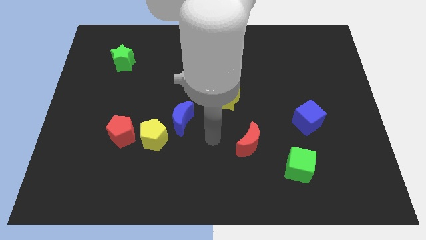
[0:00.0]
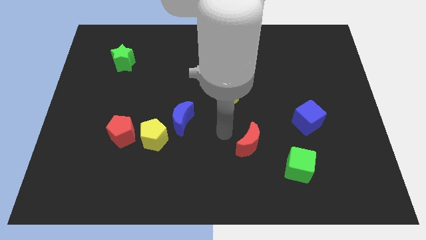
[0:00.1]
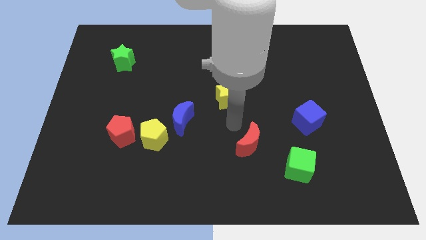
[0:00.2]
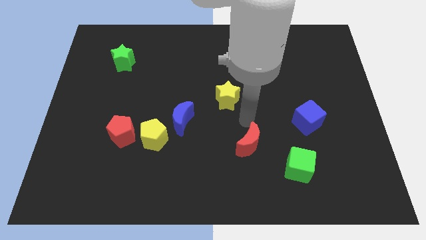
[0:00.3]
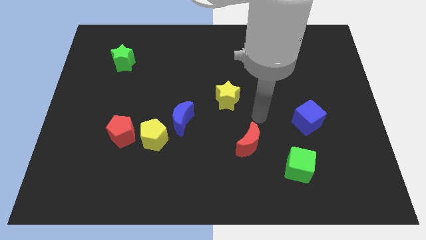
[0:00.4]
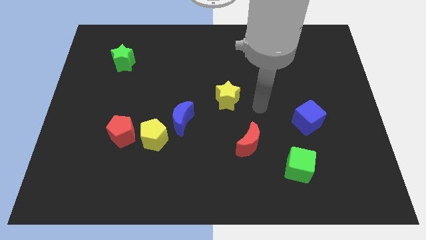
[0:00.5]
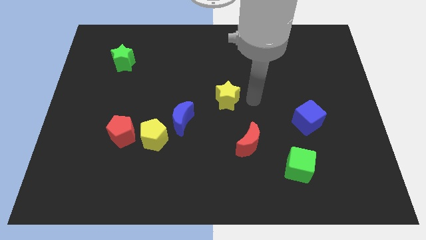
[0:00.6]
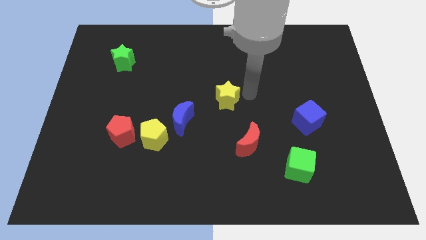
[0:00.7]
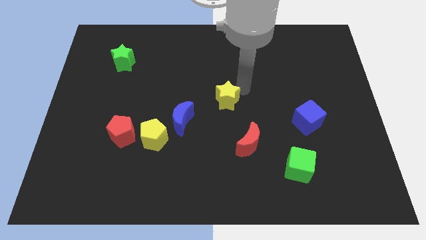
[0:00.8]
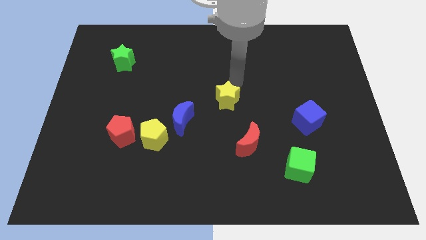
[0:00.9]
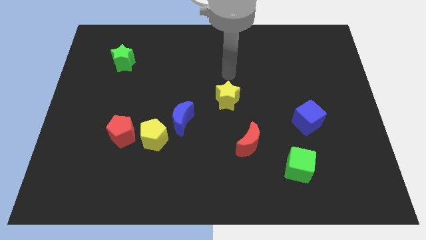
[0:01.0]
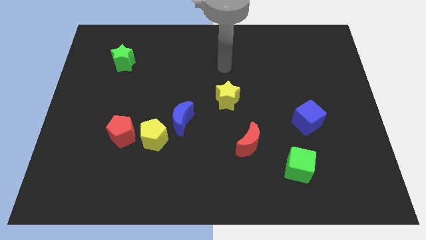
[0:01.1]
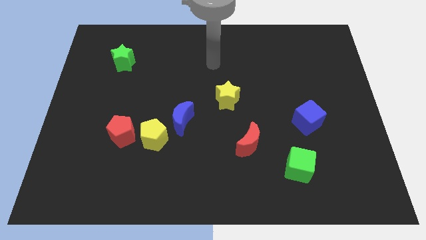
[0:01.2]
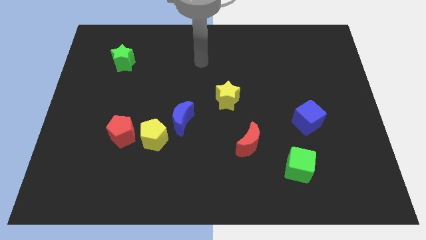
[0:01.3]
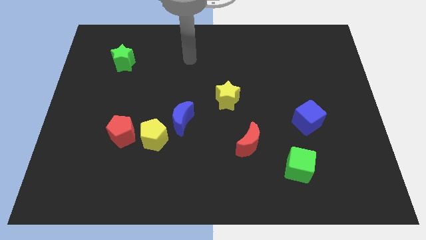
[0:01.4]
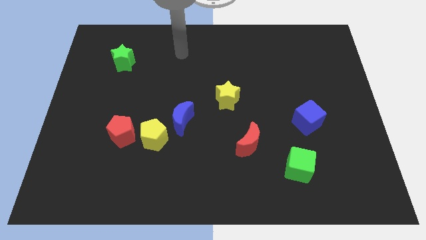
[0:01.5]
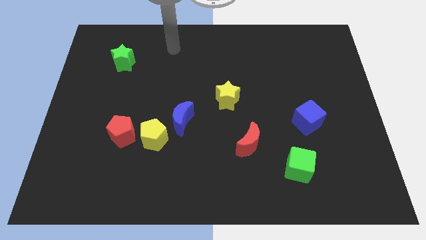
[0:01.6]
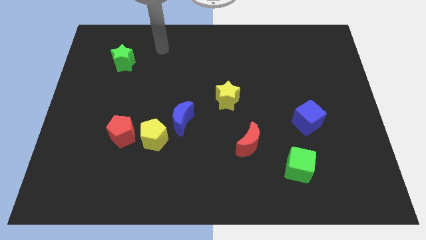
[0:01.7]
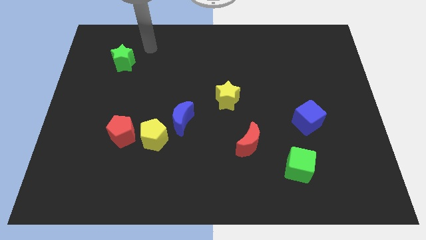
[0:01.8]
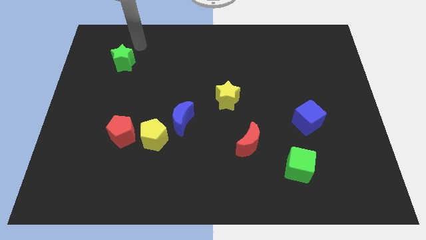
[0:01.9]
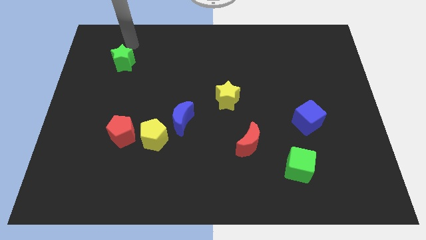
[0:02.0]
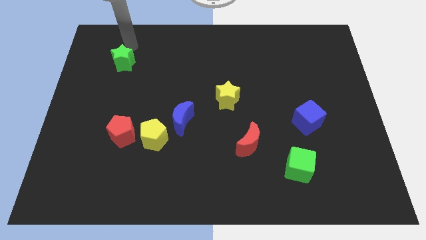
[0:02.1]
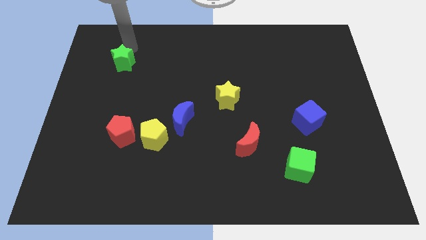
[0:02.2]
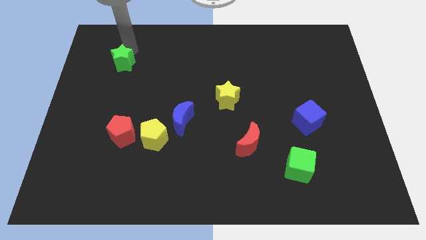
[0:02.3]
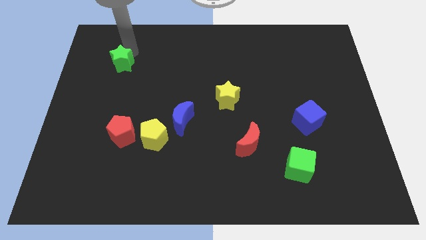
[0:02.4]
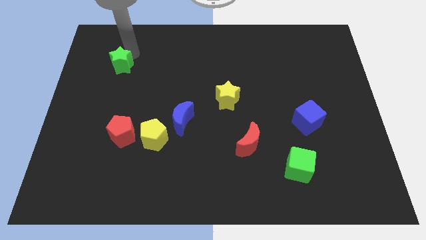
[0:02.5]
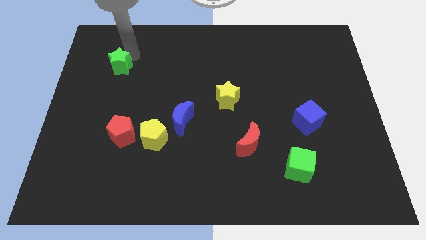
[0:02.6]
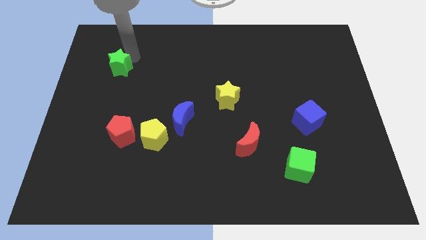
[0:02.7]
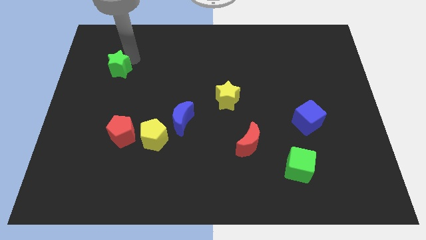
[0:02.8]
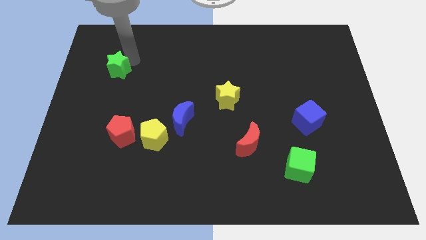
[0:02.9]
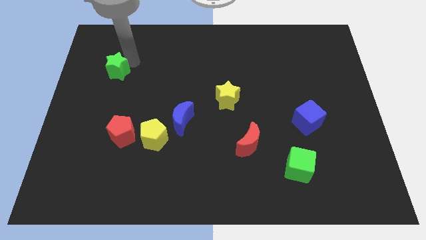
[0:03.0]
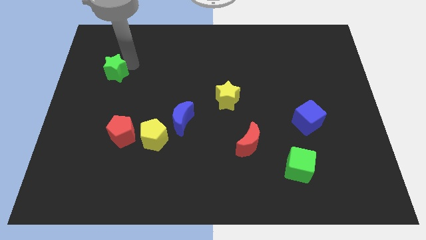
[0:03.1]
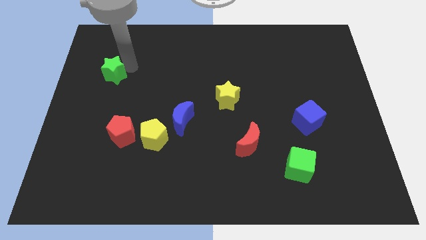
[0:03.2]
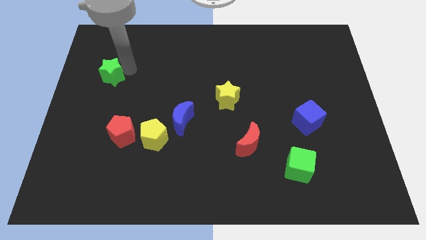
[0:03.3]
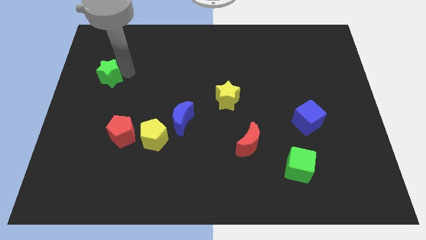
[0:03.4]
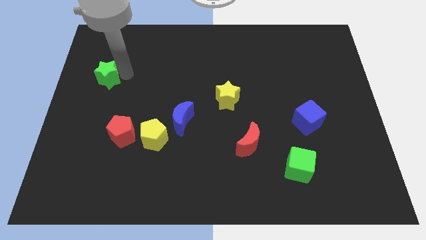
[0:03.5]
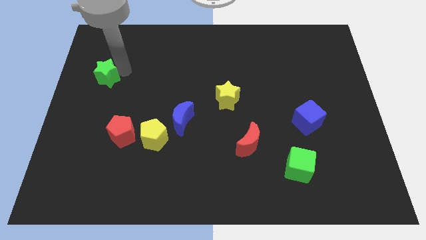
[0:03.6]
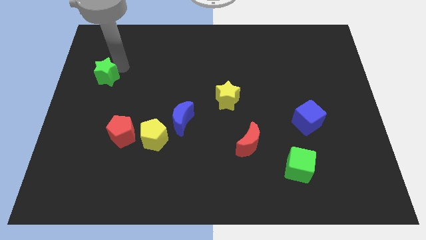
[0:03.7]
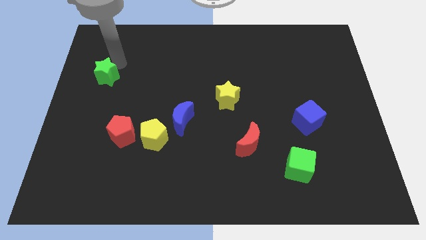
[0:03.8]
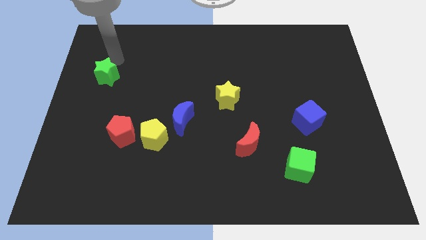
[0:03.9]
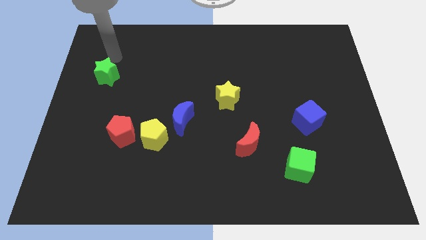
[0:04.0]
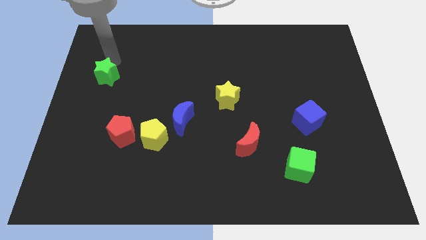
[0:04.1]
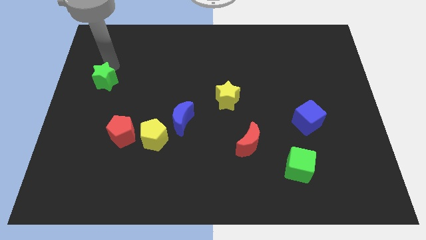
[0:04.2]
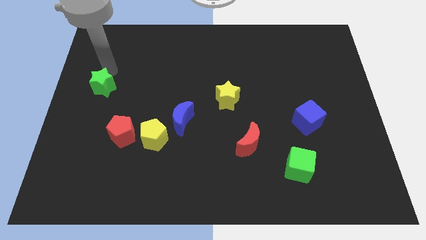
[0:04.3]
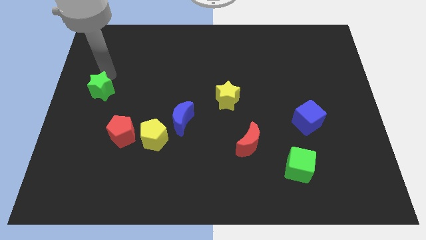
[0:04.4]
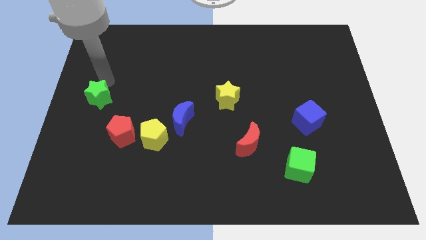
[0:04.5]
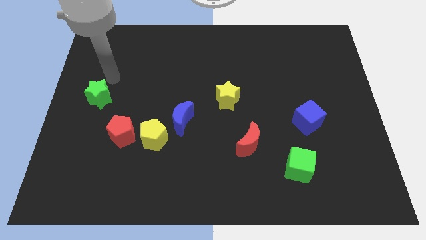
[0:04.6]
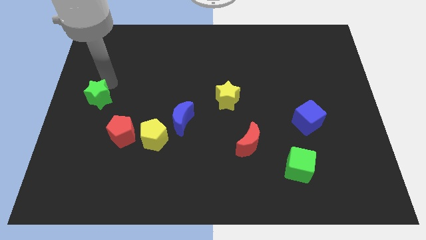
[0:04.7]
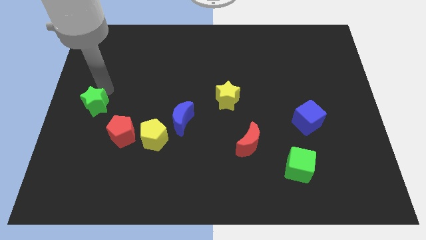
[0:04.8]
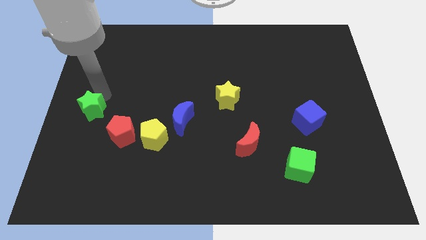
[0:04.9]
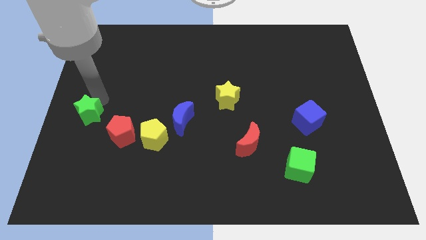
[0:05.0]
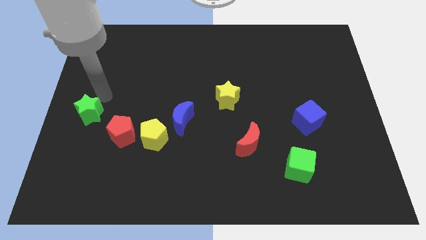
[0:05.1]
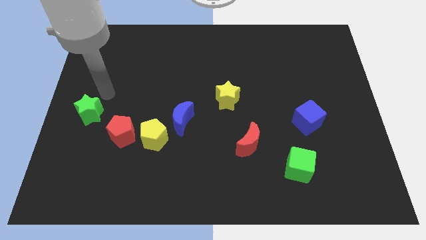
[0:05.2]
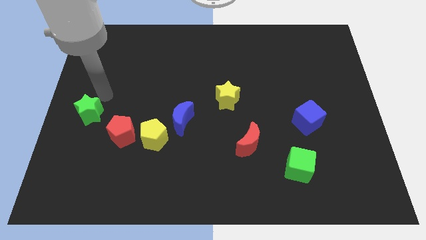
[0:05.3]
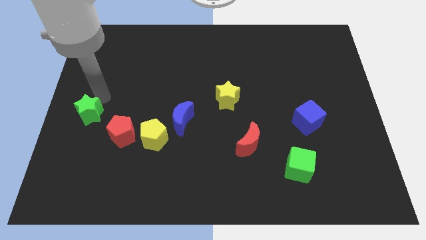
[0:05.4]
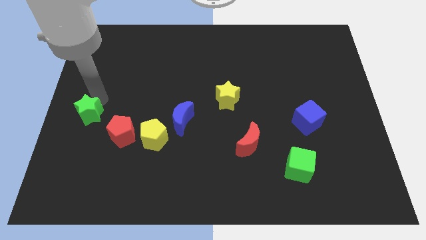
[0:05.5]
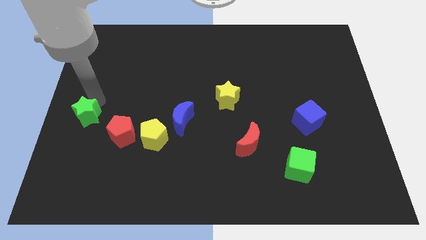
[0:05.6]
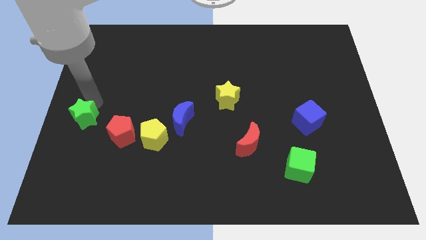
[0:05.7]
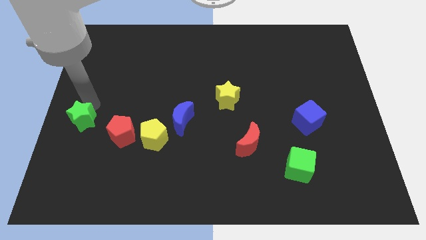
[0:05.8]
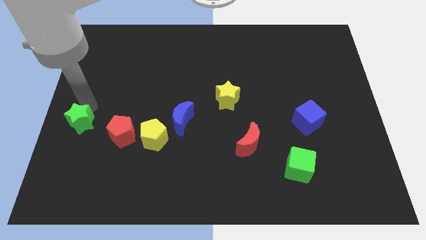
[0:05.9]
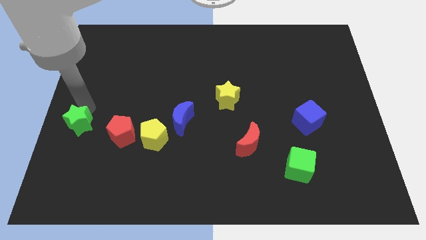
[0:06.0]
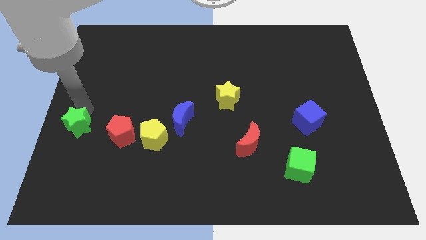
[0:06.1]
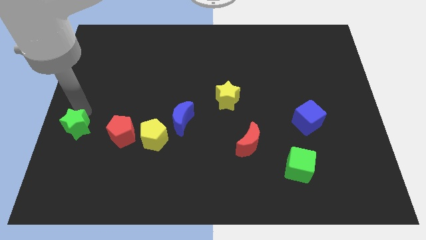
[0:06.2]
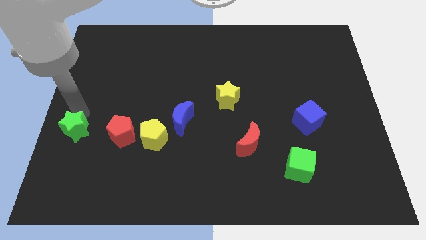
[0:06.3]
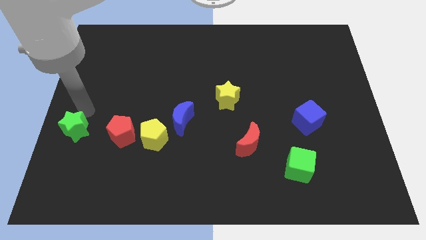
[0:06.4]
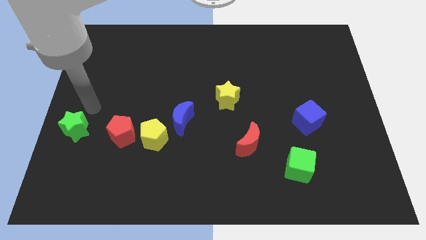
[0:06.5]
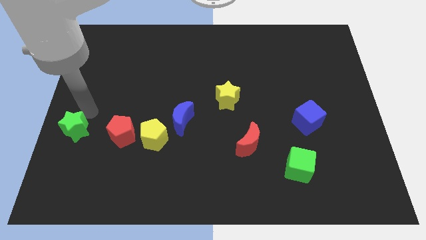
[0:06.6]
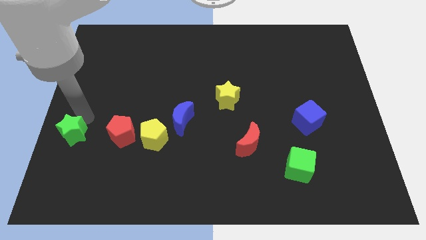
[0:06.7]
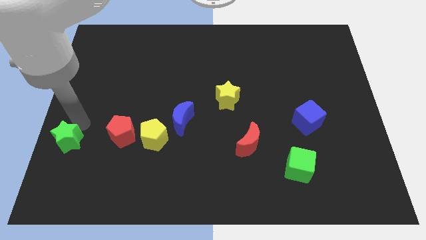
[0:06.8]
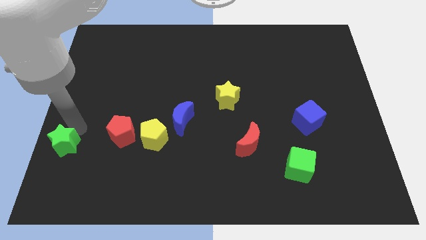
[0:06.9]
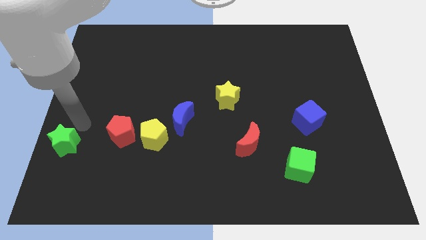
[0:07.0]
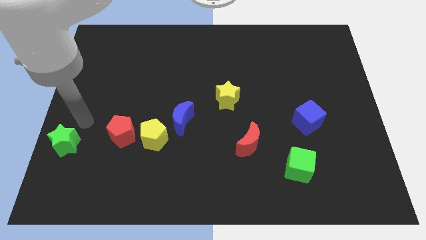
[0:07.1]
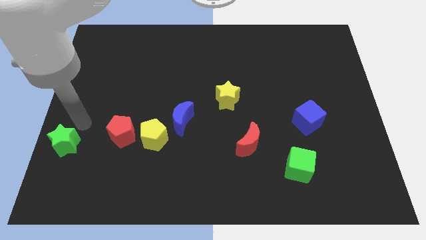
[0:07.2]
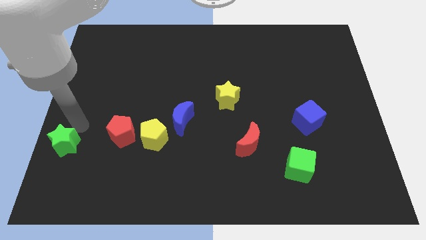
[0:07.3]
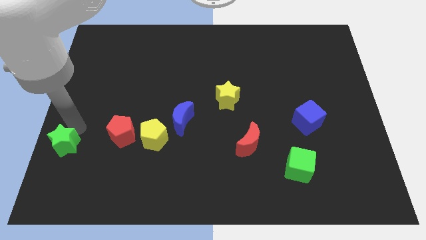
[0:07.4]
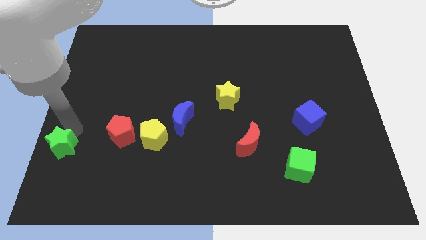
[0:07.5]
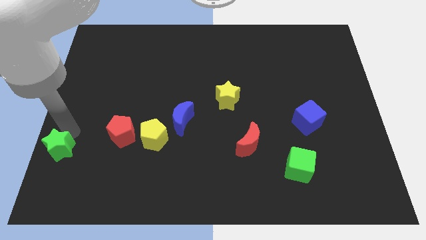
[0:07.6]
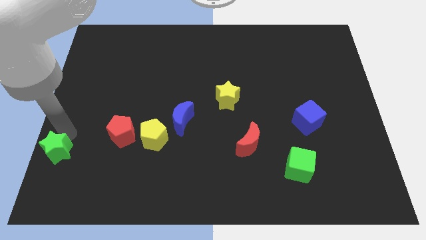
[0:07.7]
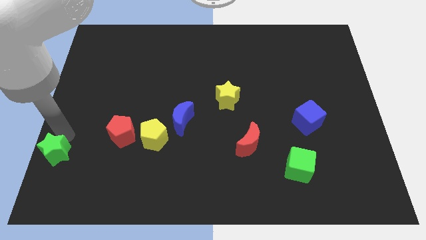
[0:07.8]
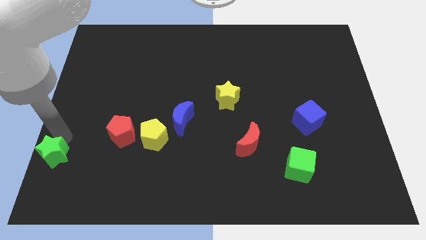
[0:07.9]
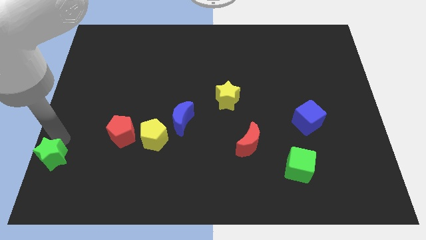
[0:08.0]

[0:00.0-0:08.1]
move the green star to the bottom left of the board
